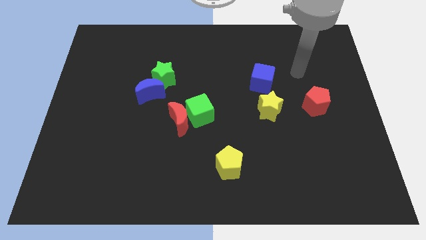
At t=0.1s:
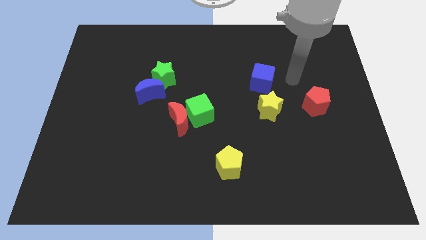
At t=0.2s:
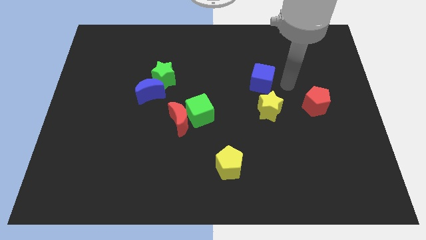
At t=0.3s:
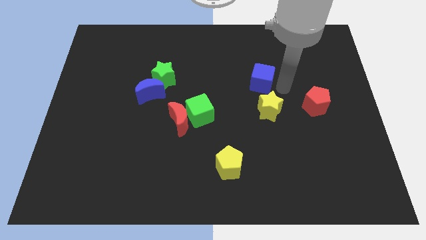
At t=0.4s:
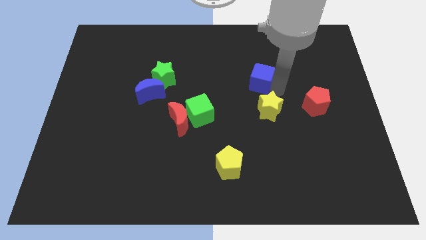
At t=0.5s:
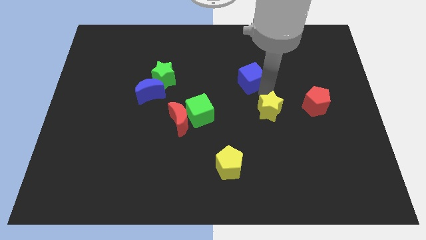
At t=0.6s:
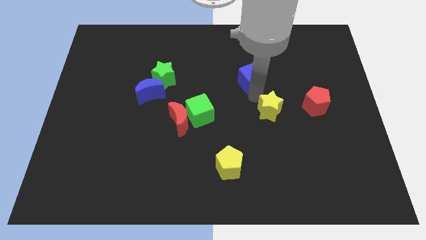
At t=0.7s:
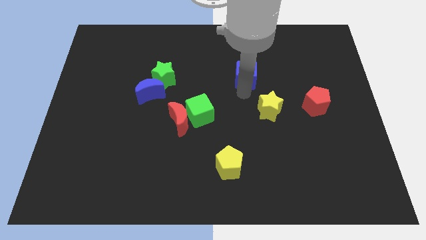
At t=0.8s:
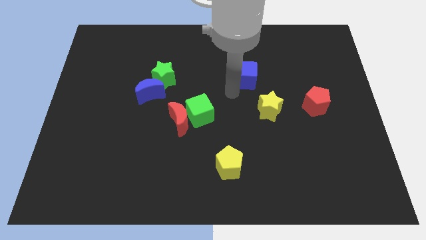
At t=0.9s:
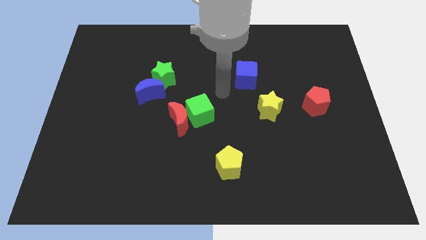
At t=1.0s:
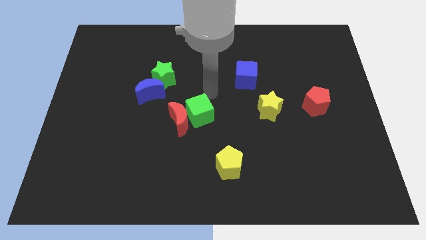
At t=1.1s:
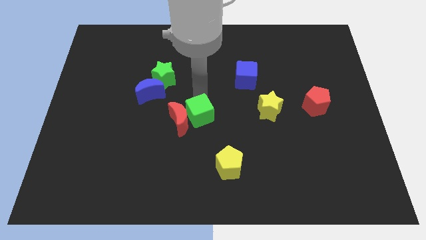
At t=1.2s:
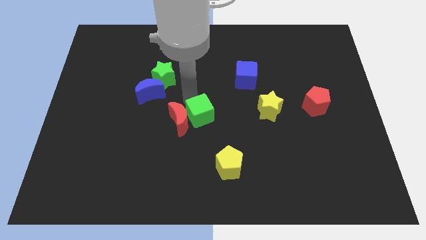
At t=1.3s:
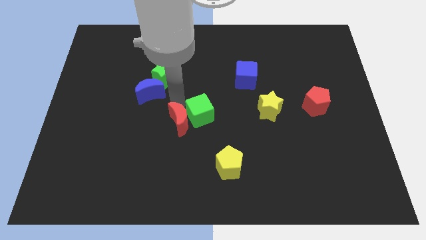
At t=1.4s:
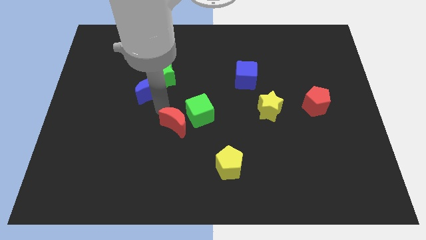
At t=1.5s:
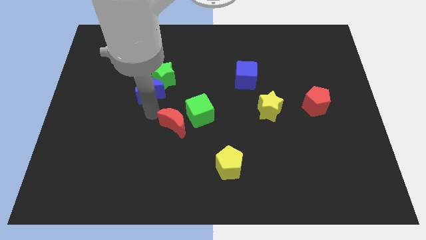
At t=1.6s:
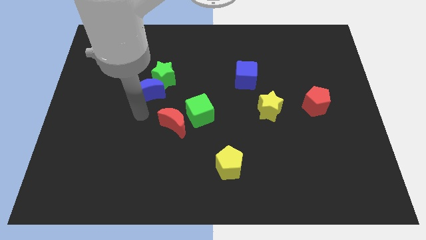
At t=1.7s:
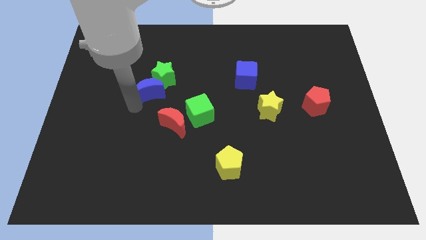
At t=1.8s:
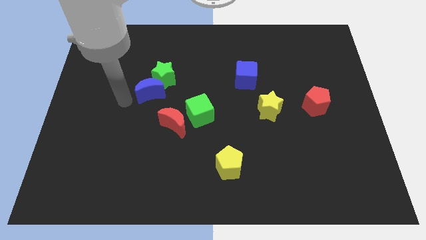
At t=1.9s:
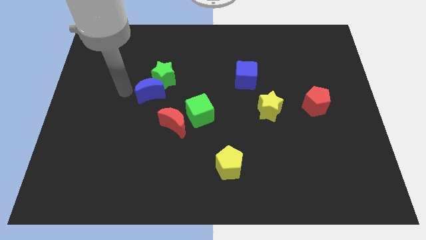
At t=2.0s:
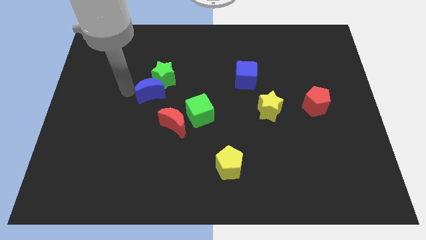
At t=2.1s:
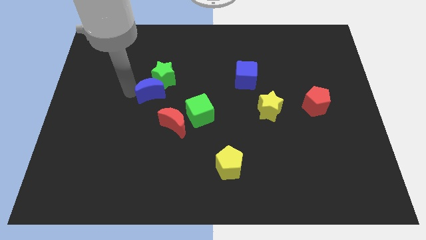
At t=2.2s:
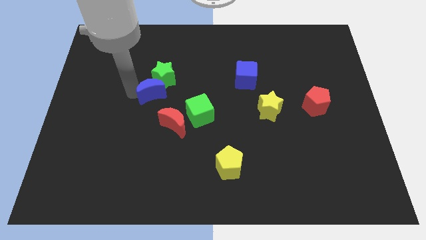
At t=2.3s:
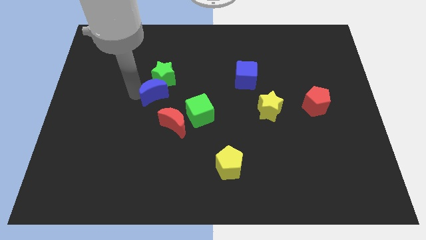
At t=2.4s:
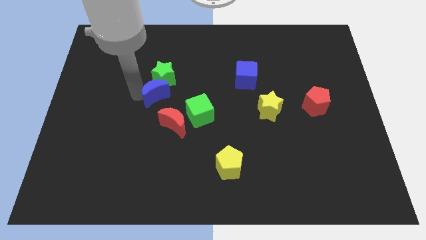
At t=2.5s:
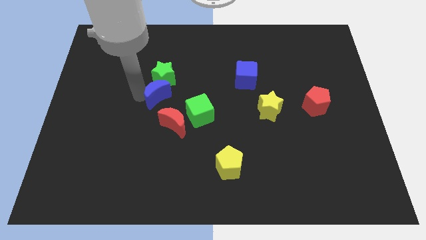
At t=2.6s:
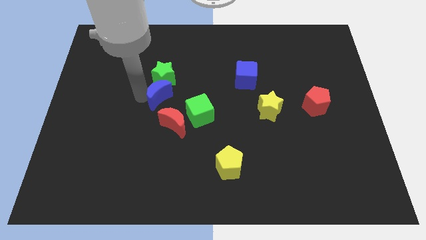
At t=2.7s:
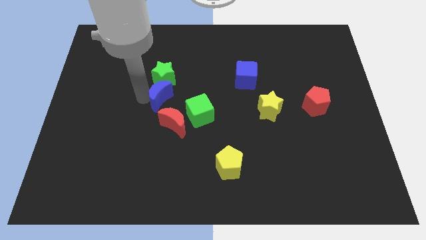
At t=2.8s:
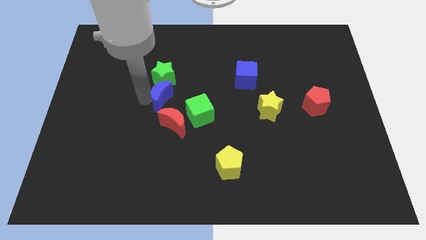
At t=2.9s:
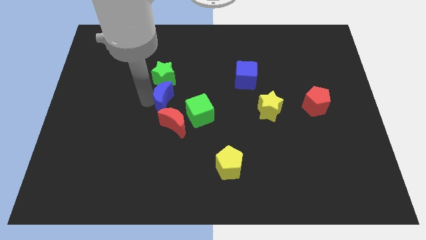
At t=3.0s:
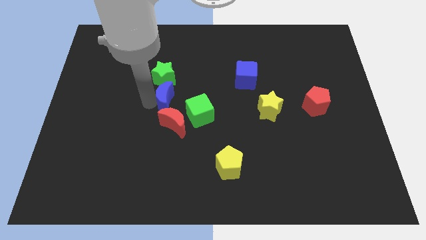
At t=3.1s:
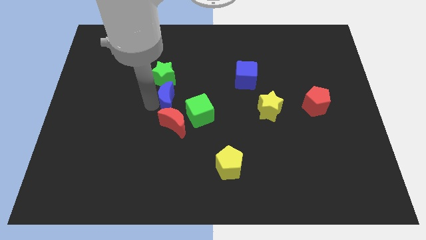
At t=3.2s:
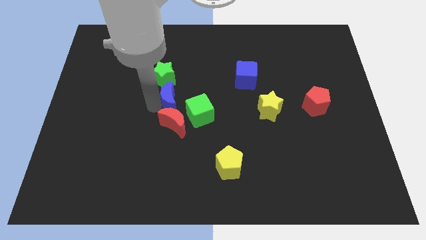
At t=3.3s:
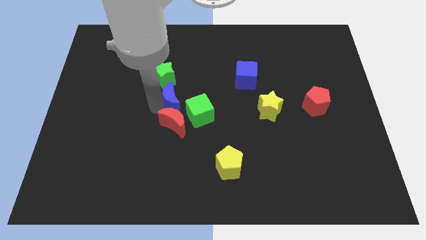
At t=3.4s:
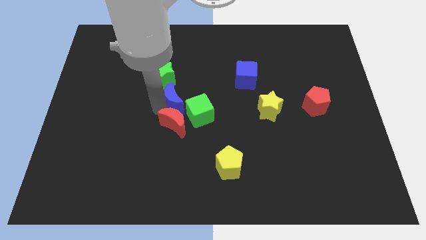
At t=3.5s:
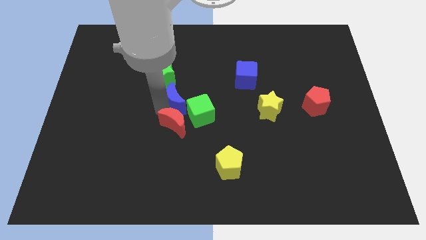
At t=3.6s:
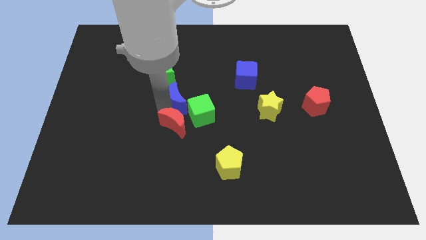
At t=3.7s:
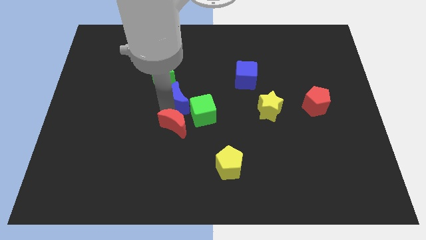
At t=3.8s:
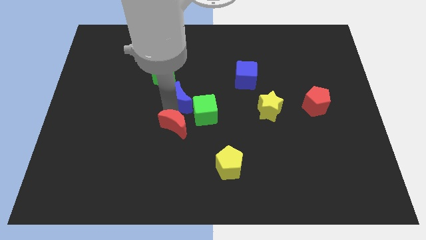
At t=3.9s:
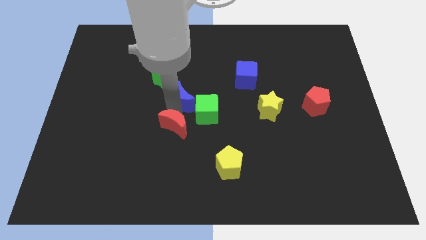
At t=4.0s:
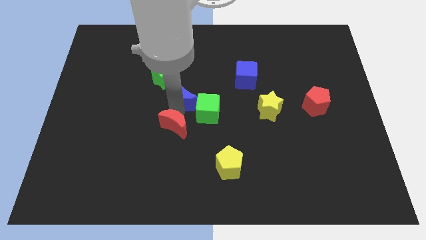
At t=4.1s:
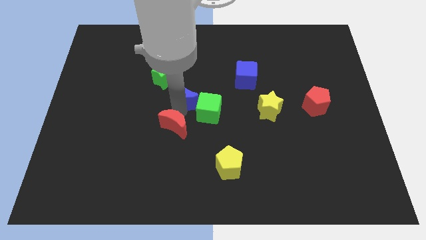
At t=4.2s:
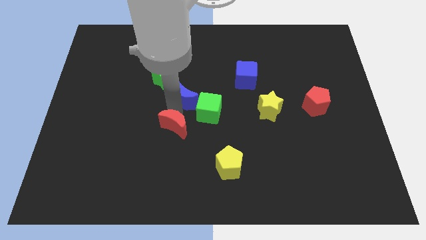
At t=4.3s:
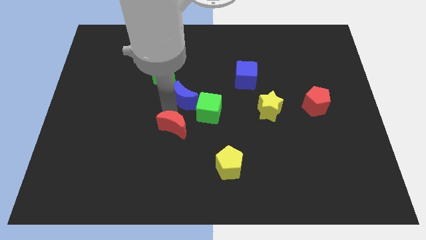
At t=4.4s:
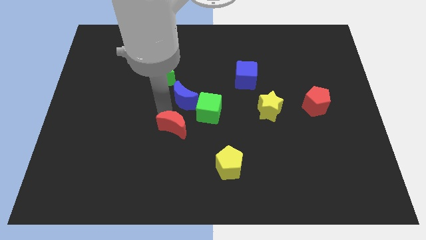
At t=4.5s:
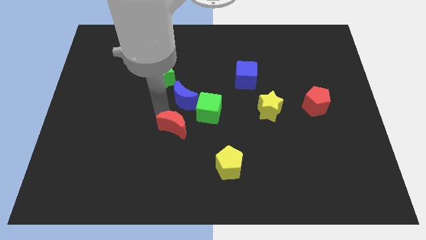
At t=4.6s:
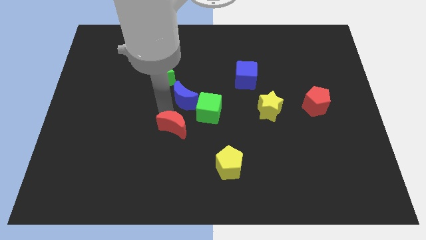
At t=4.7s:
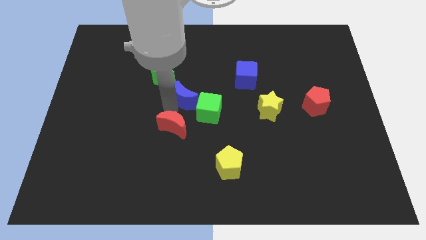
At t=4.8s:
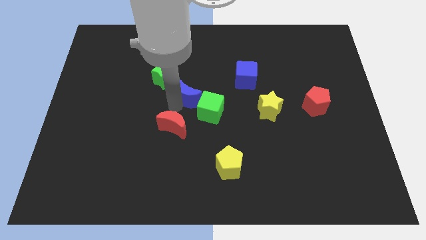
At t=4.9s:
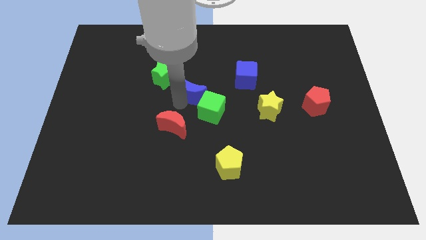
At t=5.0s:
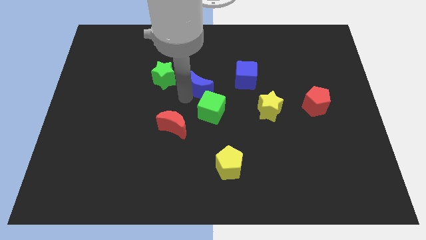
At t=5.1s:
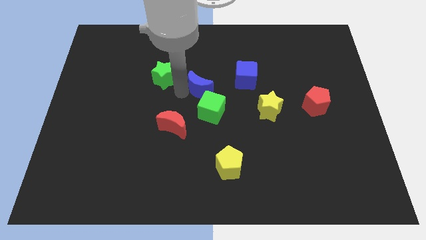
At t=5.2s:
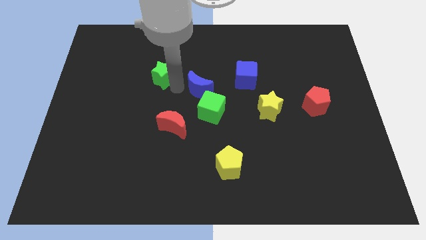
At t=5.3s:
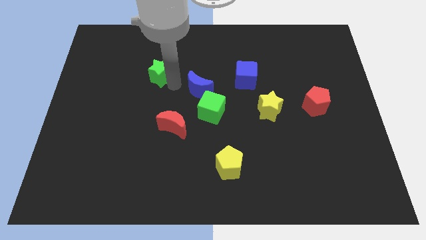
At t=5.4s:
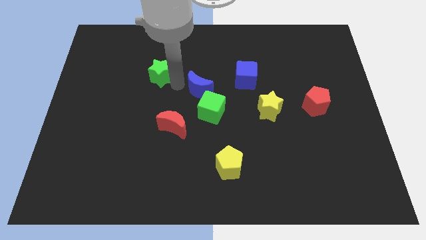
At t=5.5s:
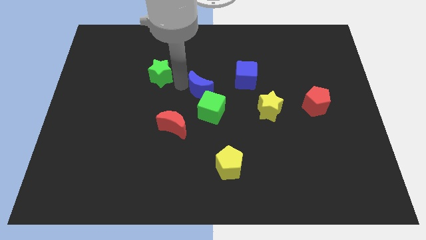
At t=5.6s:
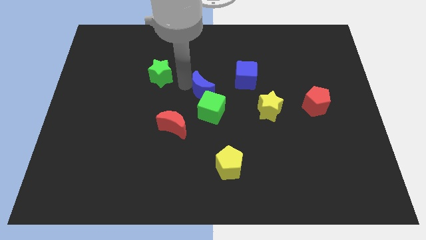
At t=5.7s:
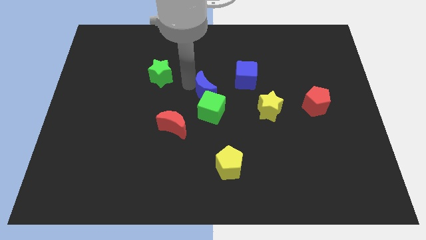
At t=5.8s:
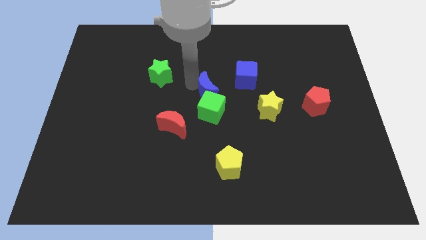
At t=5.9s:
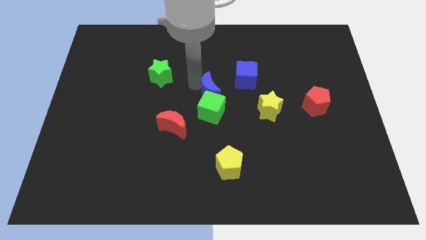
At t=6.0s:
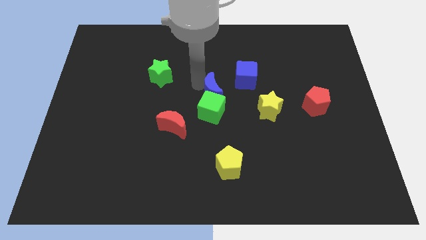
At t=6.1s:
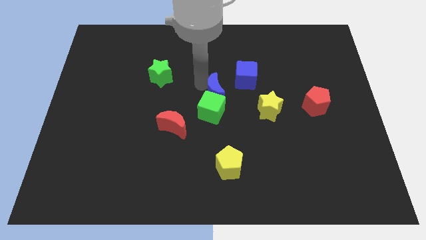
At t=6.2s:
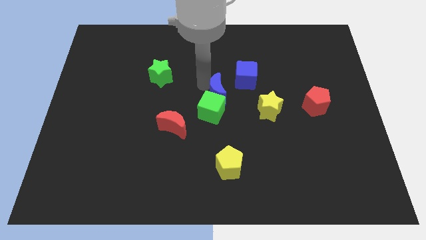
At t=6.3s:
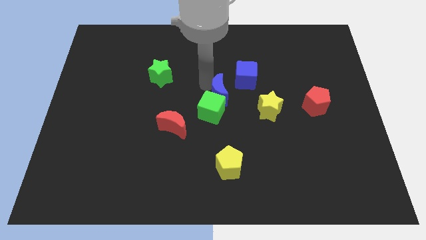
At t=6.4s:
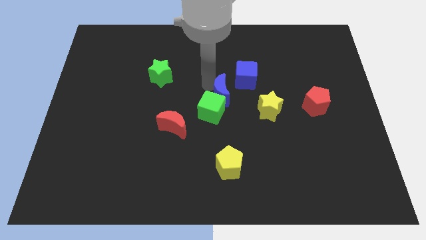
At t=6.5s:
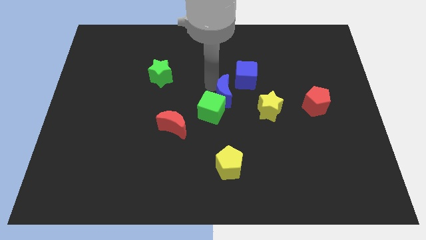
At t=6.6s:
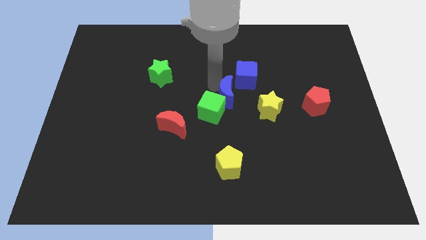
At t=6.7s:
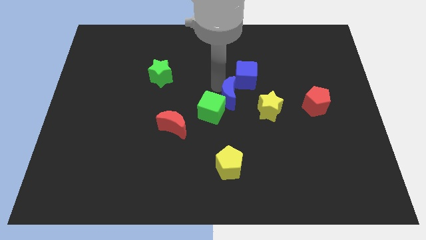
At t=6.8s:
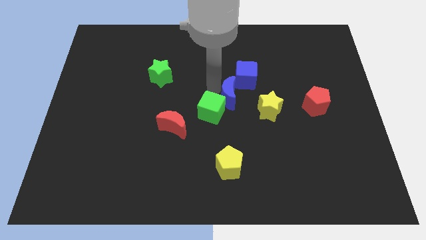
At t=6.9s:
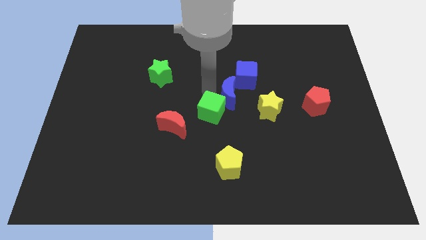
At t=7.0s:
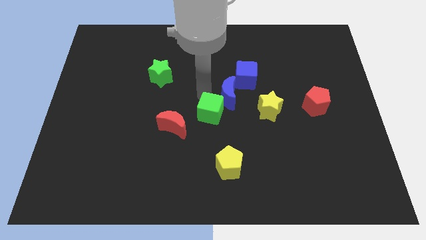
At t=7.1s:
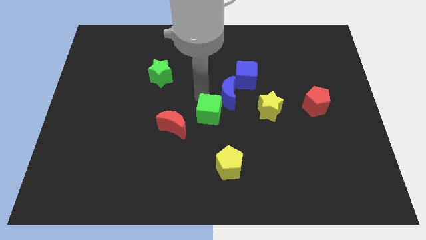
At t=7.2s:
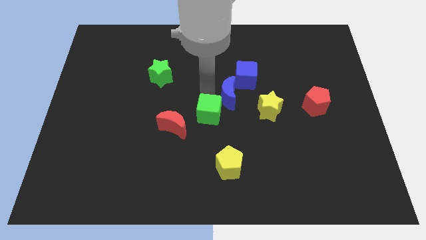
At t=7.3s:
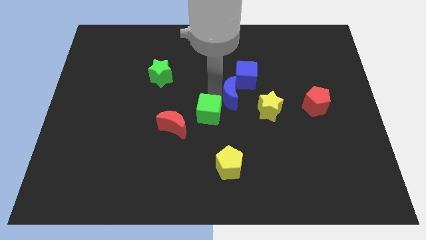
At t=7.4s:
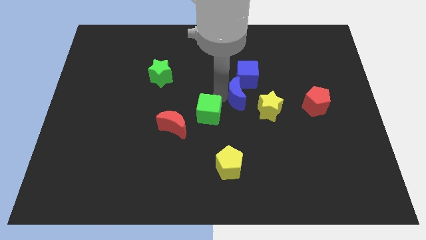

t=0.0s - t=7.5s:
move the blue moon right

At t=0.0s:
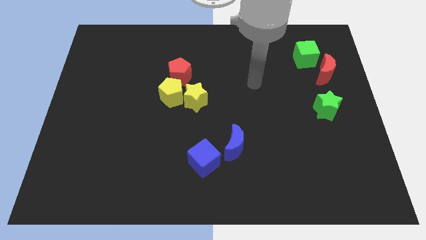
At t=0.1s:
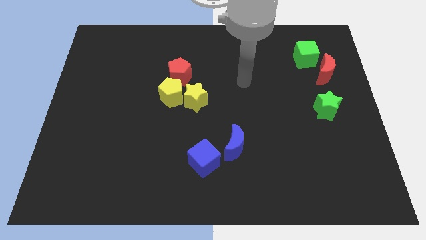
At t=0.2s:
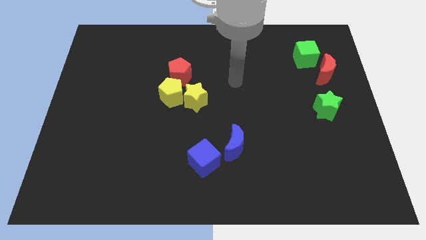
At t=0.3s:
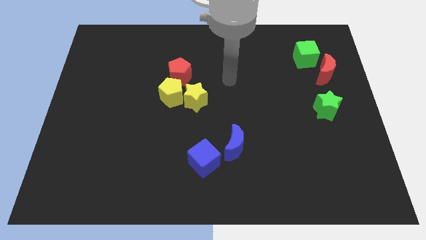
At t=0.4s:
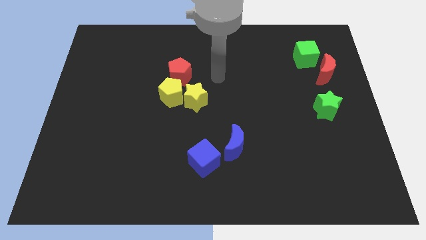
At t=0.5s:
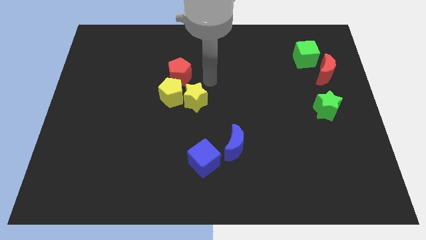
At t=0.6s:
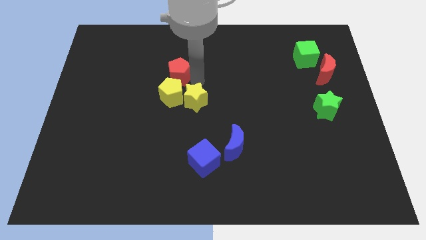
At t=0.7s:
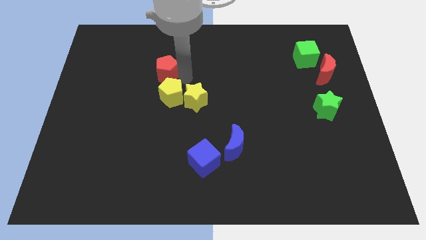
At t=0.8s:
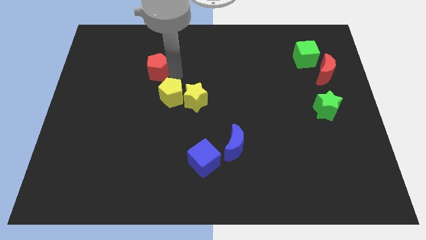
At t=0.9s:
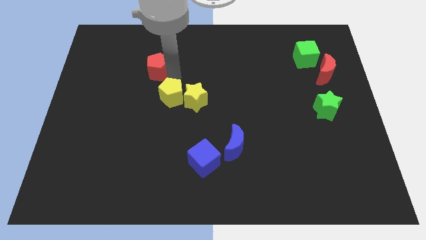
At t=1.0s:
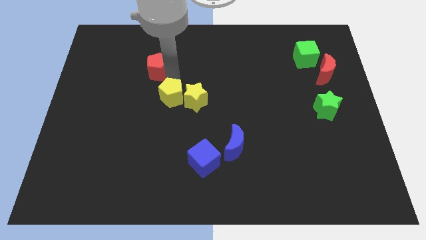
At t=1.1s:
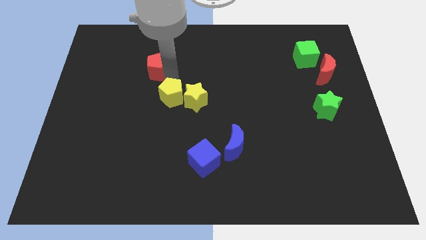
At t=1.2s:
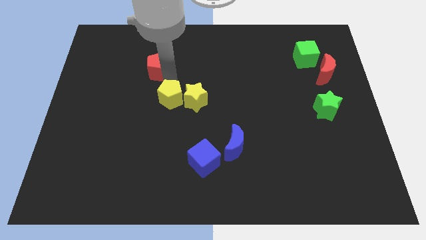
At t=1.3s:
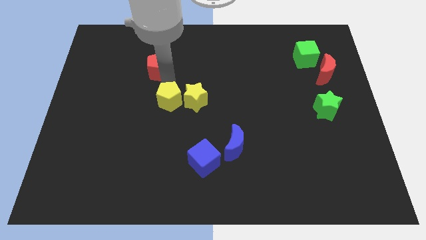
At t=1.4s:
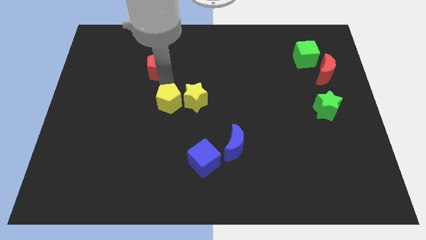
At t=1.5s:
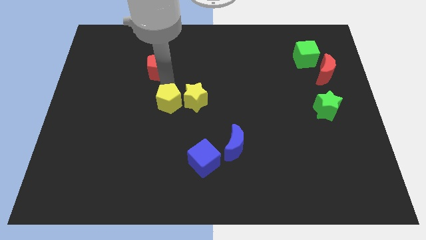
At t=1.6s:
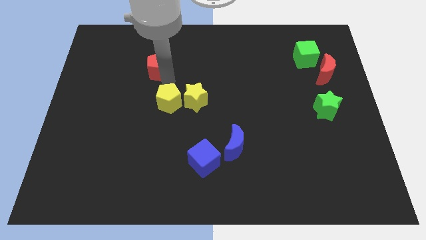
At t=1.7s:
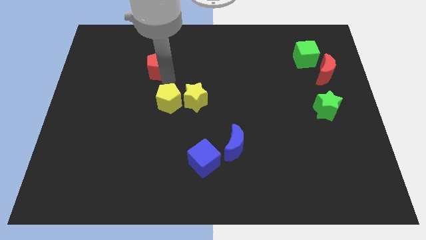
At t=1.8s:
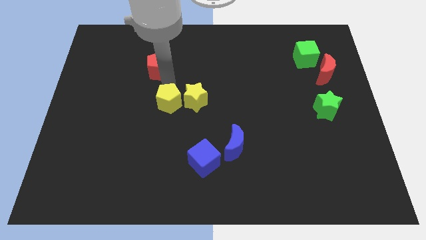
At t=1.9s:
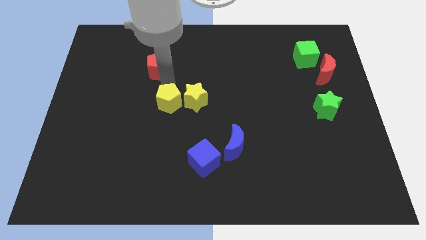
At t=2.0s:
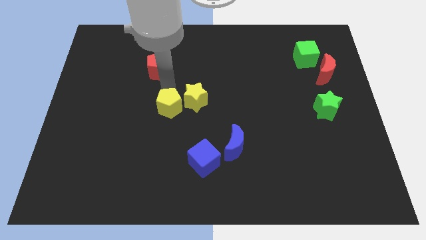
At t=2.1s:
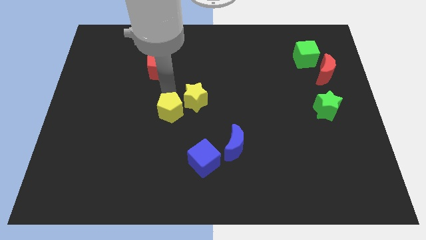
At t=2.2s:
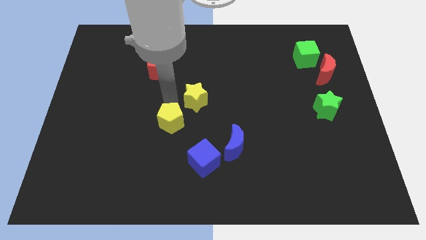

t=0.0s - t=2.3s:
slide the yellow pentagon down a bit
